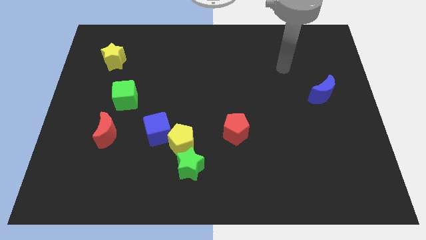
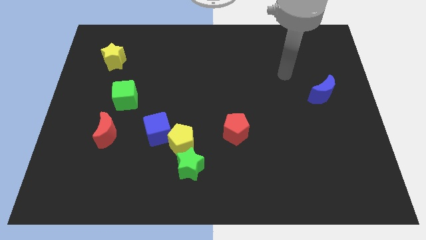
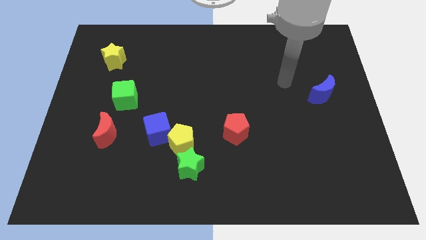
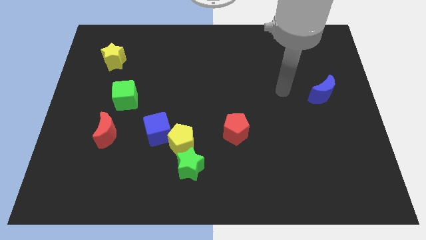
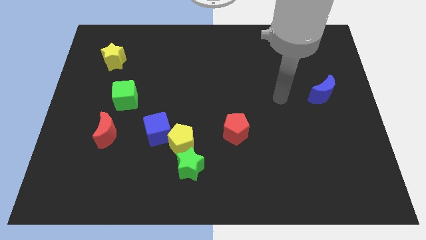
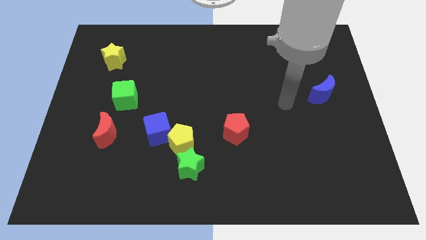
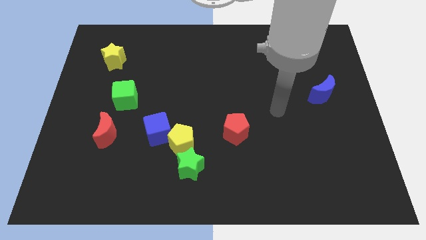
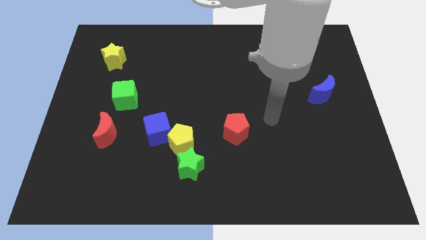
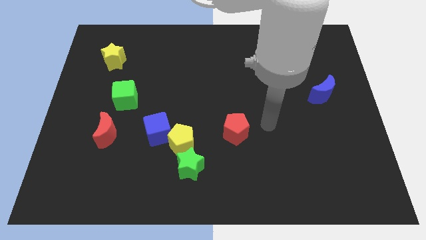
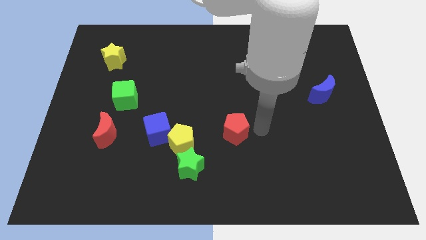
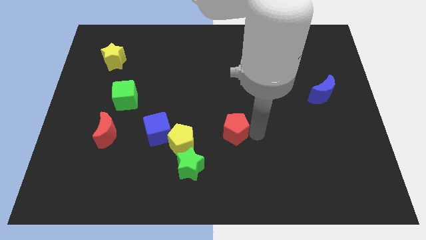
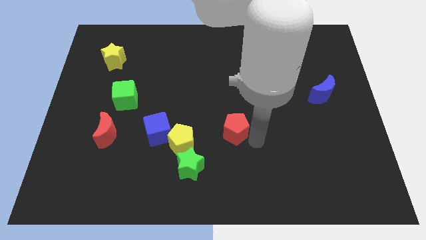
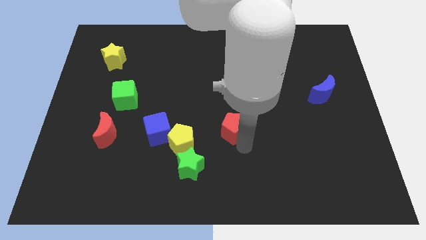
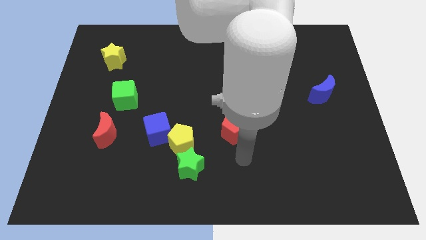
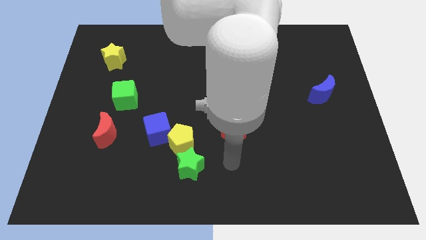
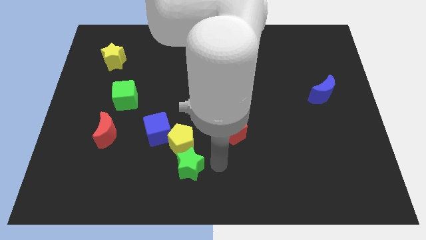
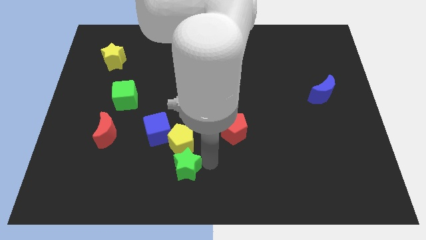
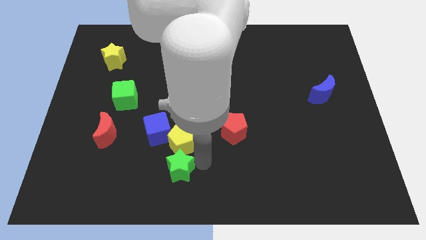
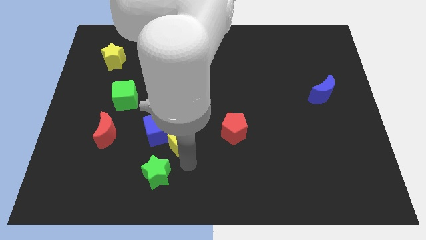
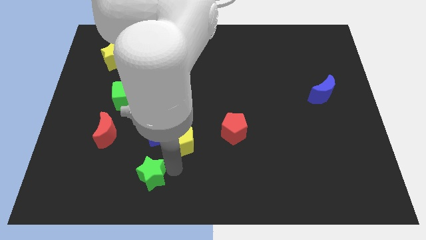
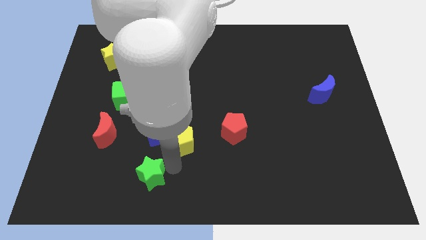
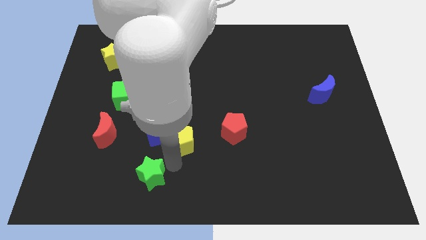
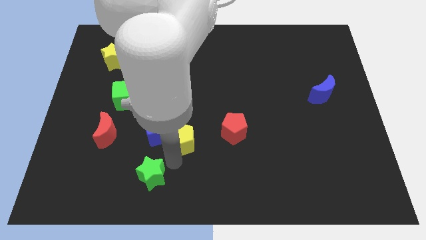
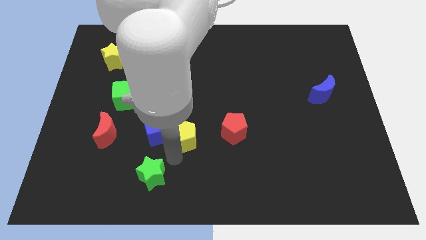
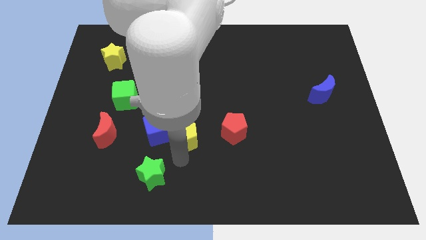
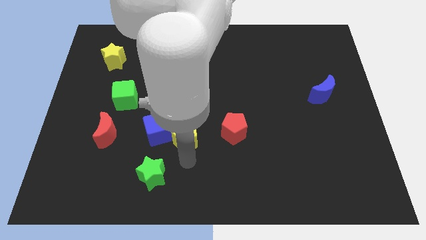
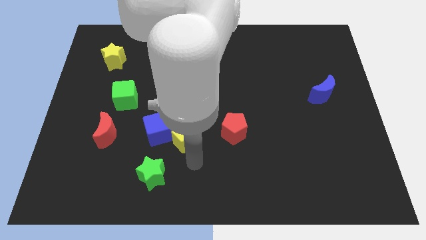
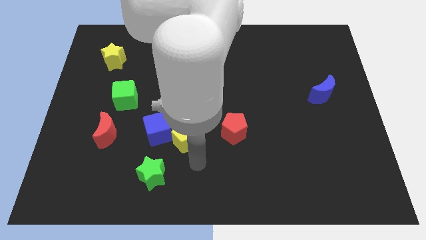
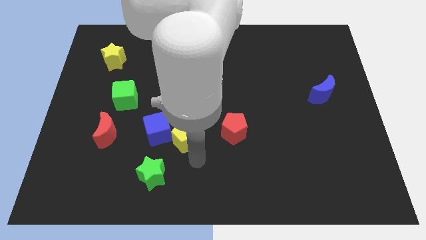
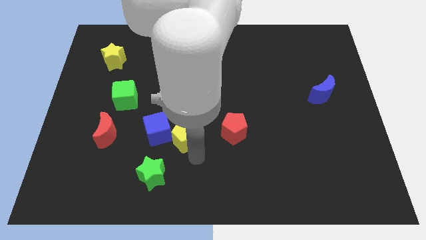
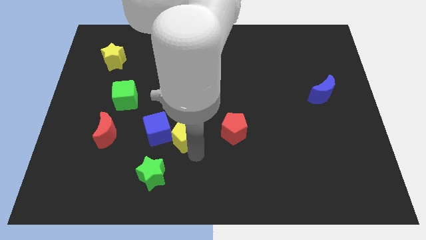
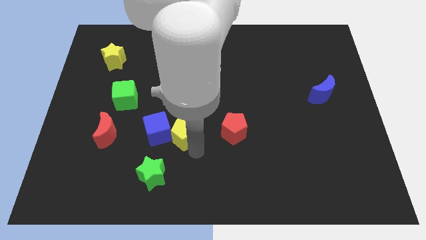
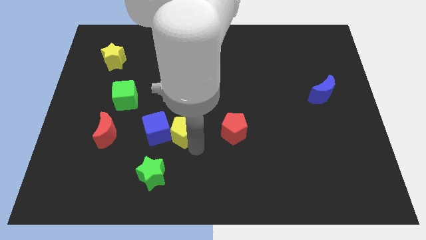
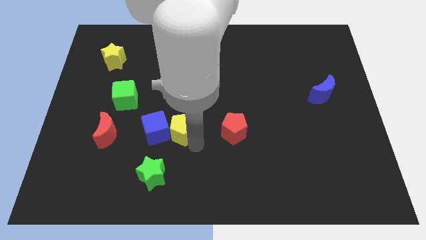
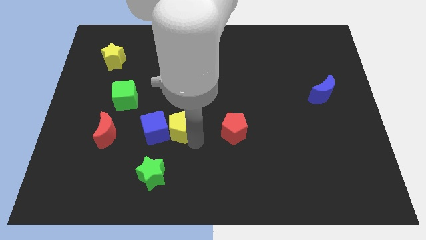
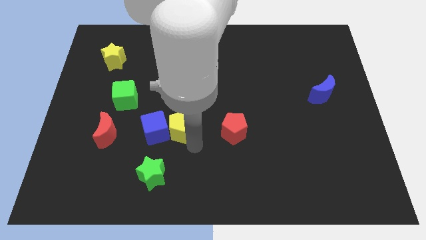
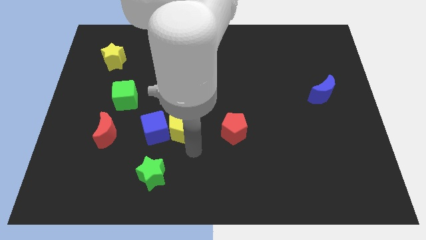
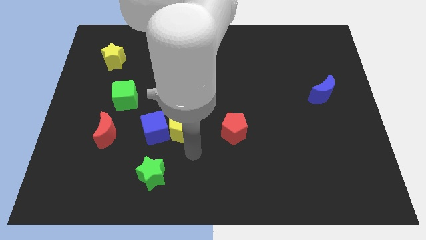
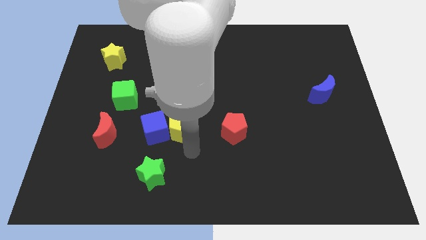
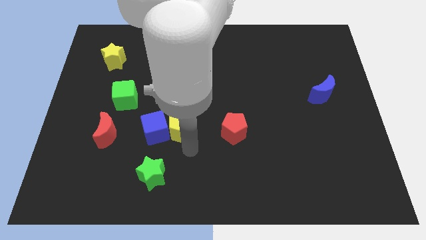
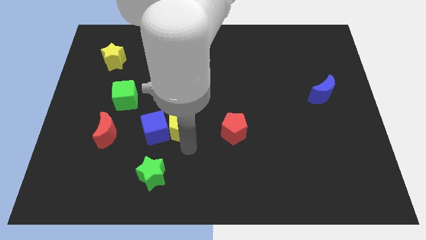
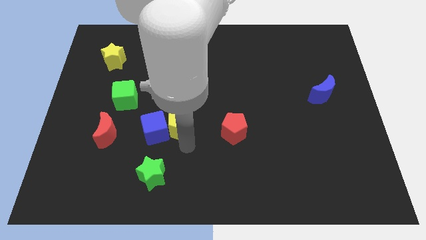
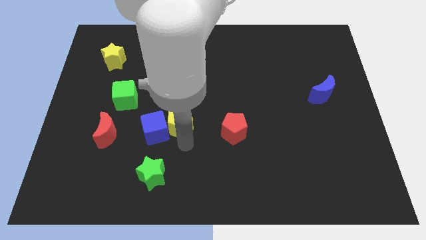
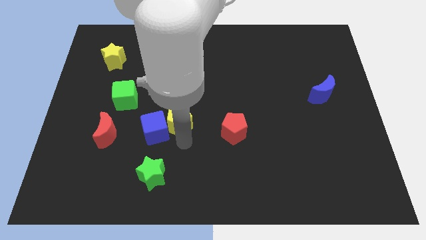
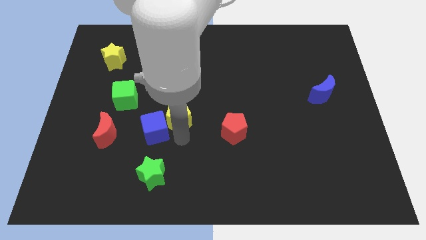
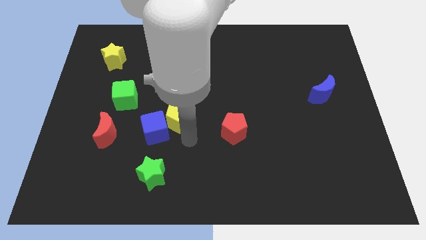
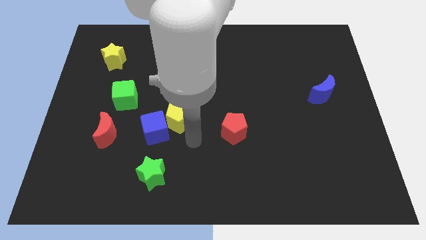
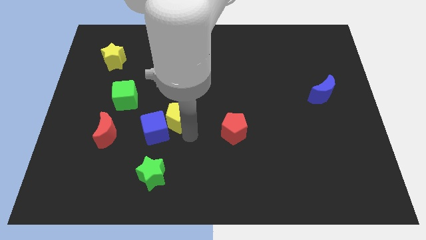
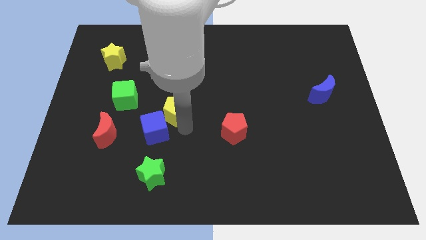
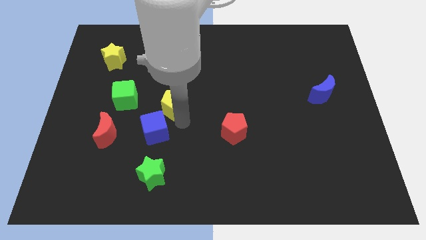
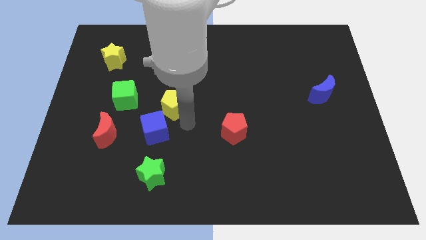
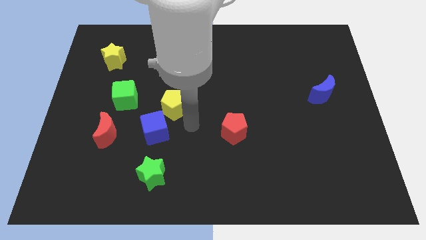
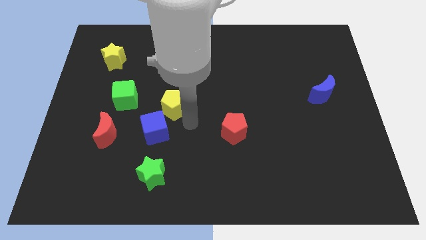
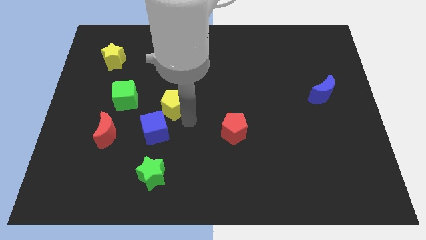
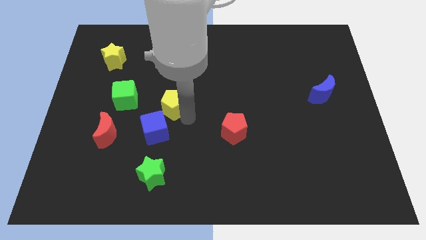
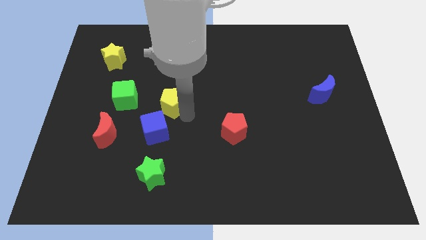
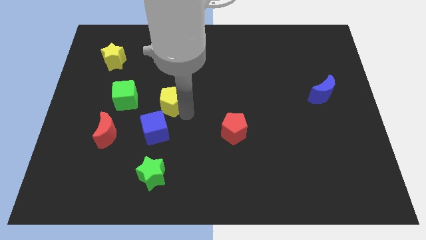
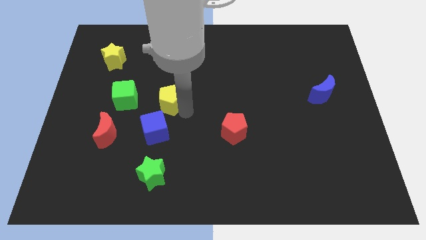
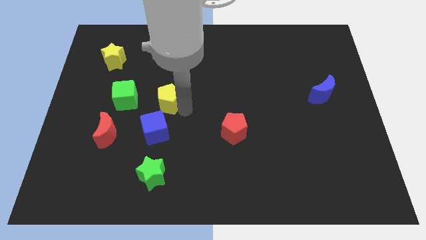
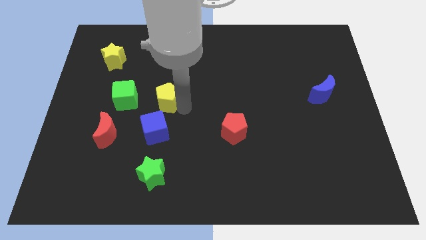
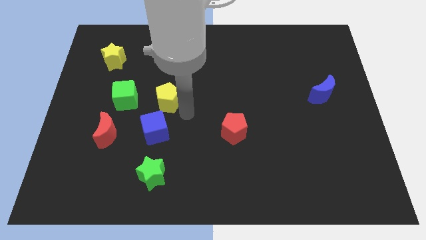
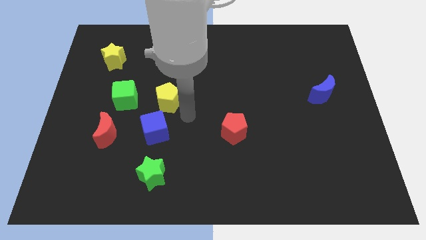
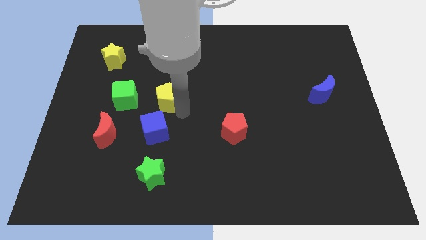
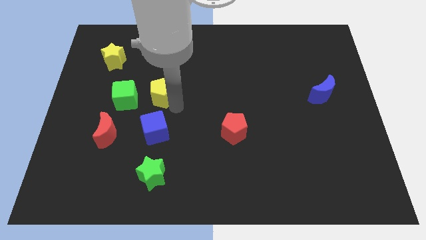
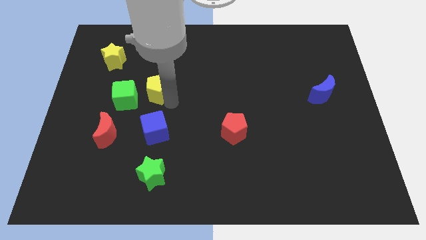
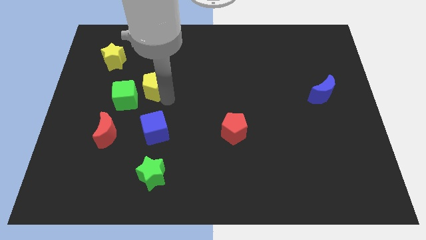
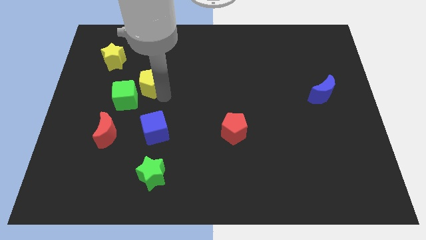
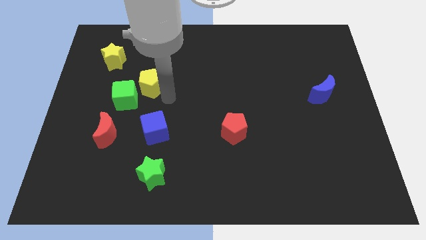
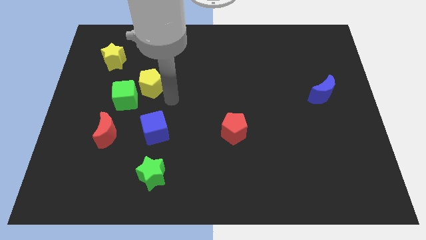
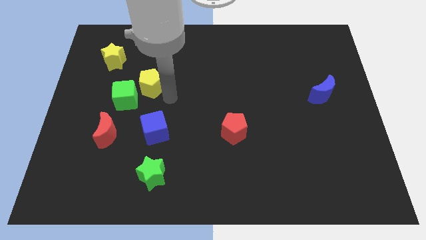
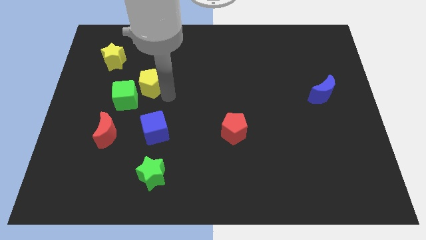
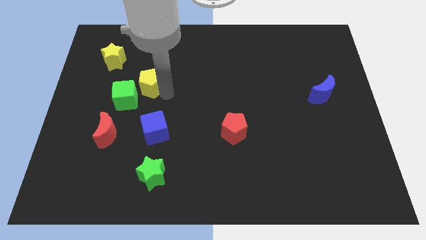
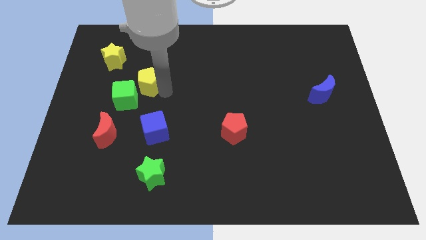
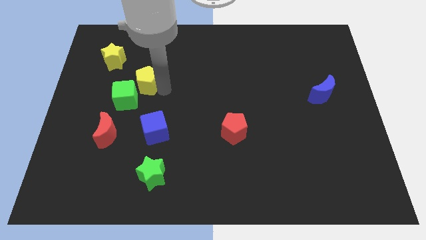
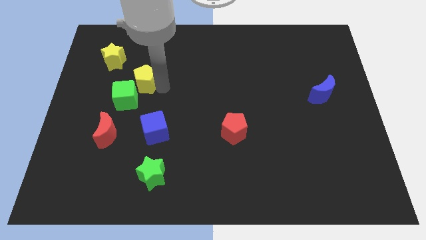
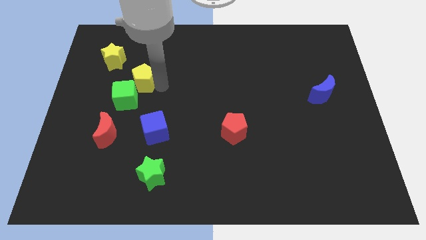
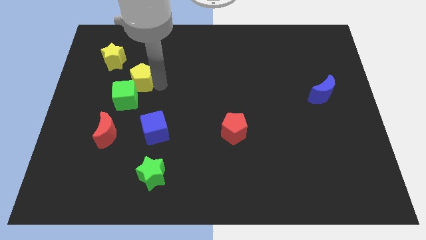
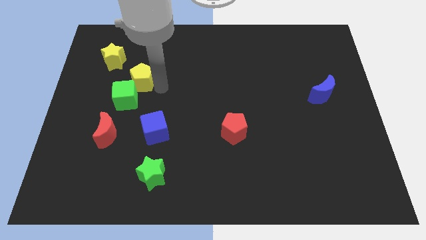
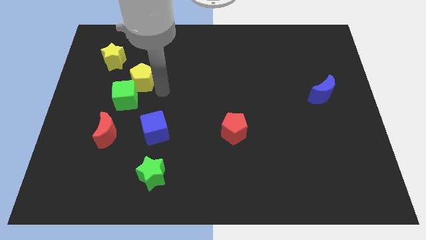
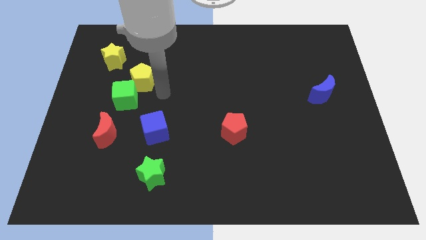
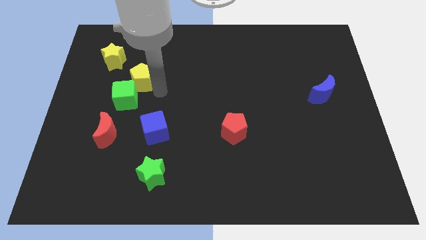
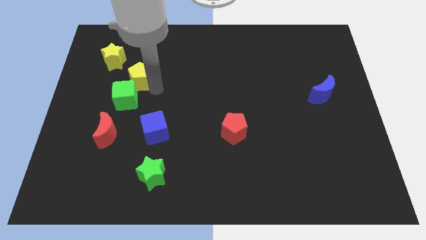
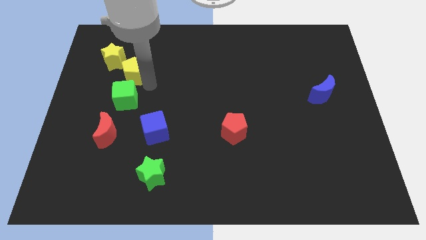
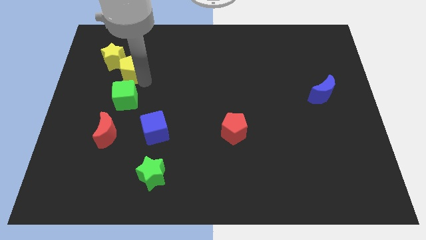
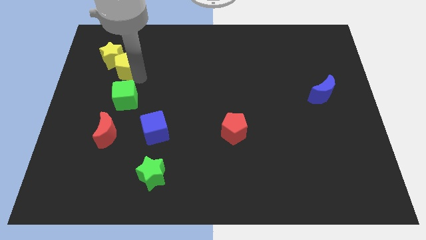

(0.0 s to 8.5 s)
push the yellow pentagon next to the yellow star
